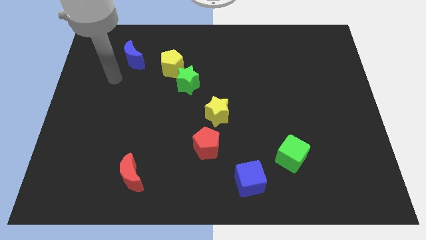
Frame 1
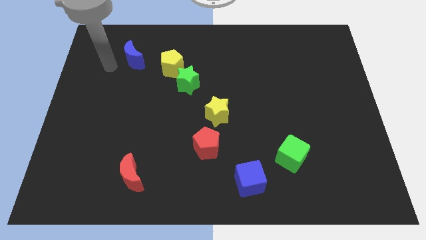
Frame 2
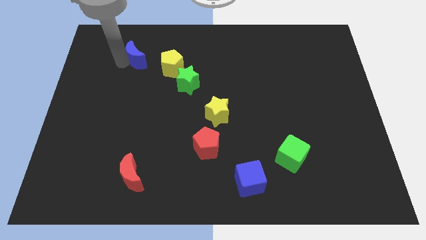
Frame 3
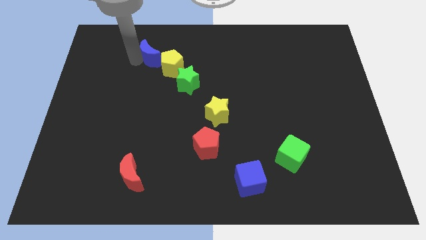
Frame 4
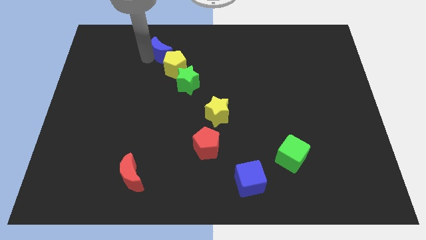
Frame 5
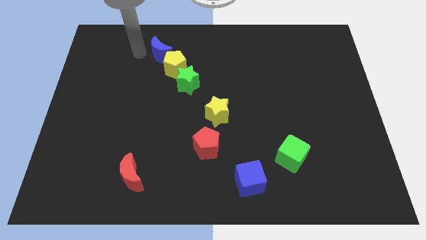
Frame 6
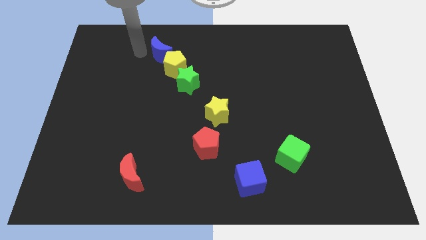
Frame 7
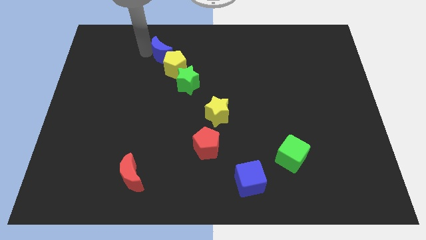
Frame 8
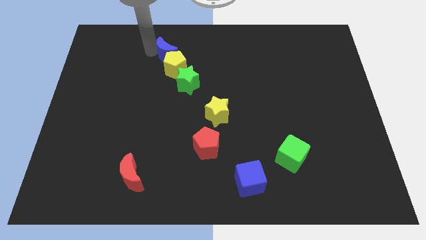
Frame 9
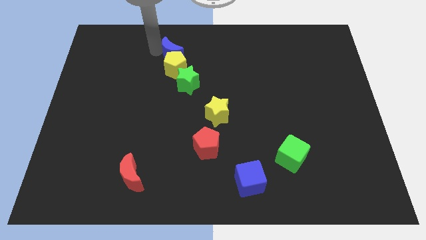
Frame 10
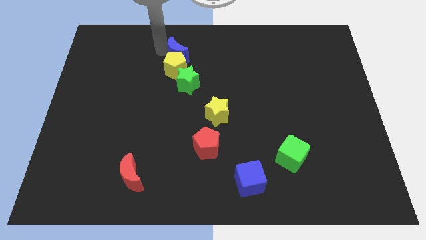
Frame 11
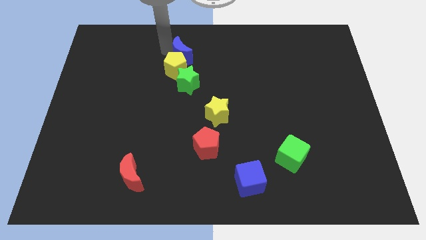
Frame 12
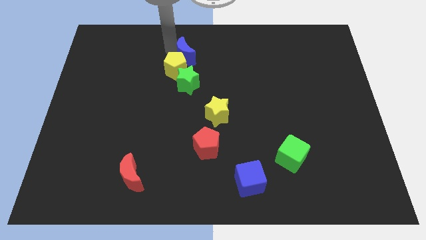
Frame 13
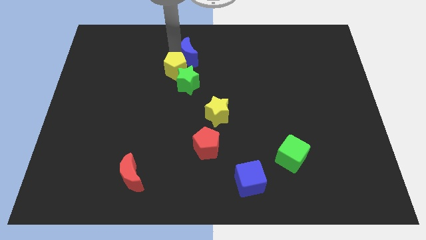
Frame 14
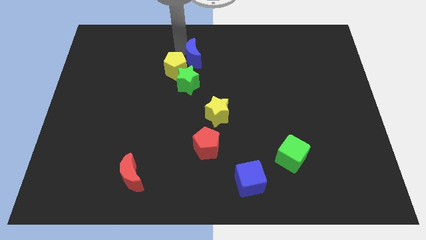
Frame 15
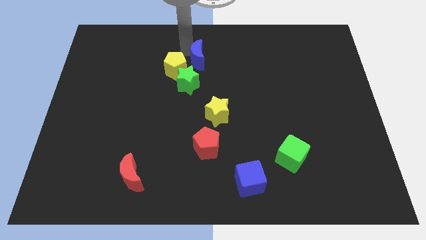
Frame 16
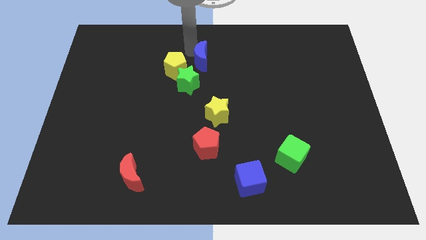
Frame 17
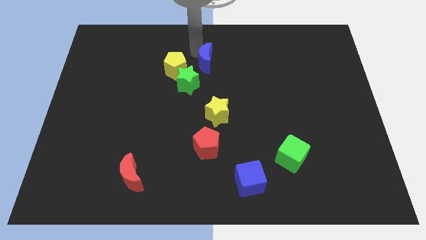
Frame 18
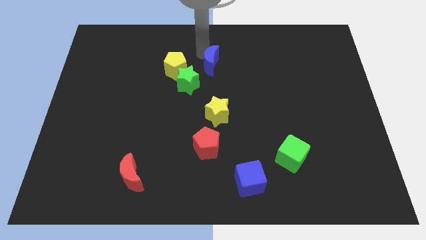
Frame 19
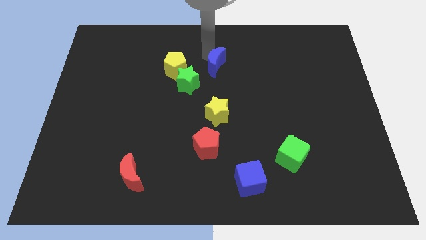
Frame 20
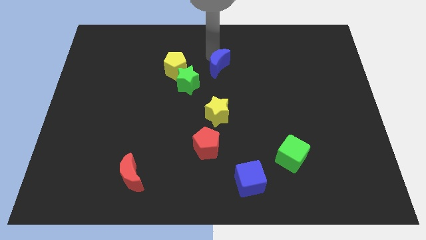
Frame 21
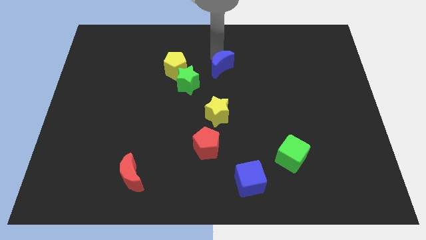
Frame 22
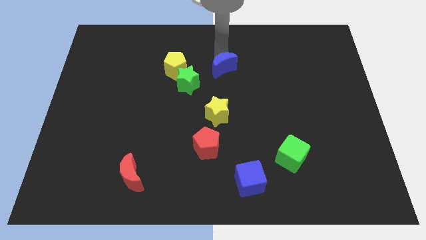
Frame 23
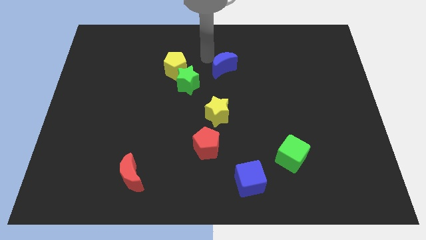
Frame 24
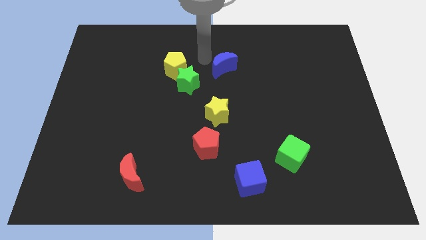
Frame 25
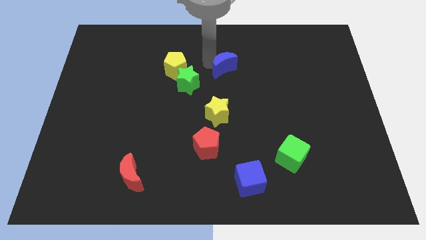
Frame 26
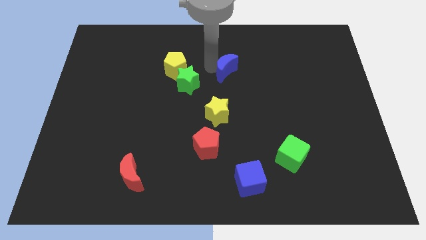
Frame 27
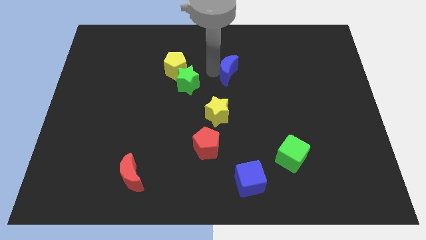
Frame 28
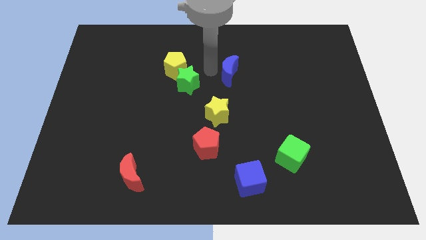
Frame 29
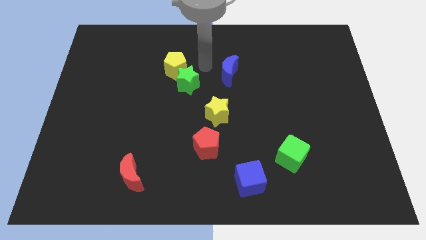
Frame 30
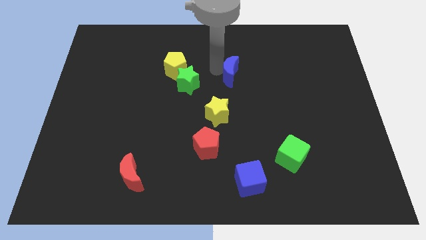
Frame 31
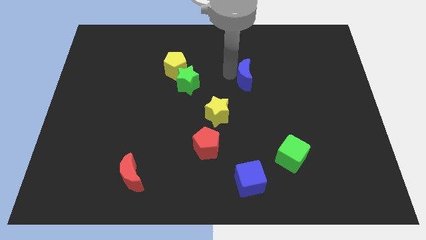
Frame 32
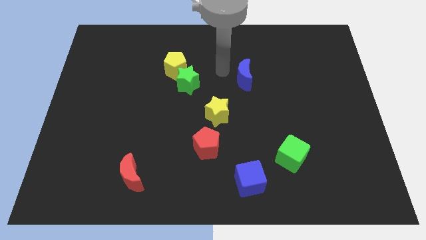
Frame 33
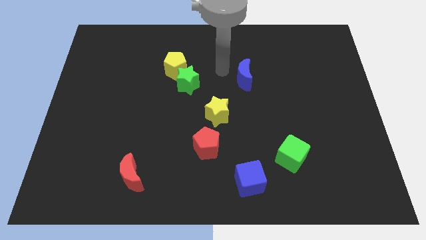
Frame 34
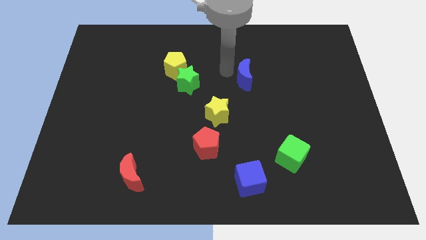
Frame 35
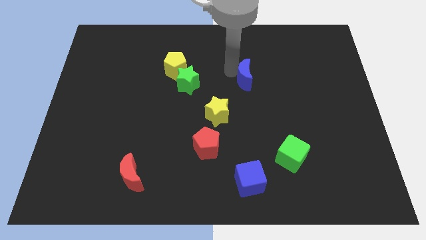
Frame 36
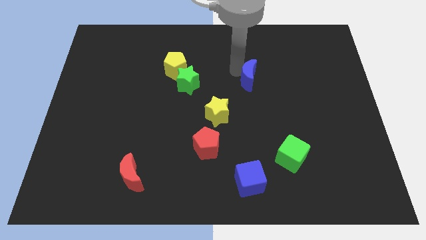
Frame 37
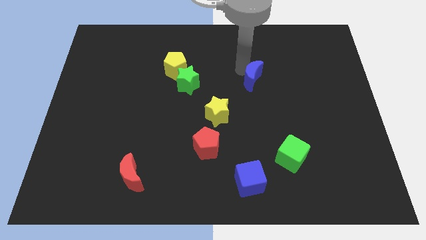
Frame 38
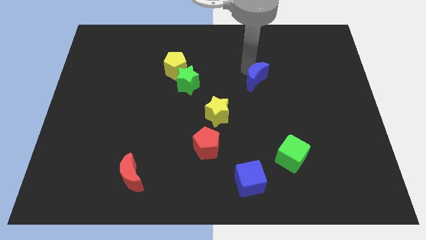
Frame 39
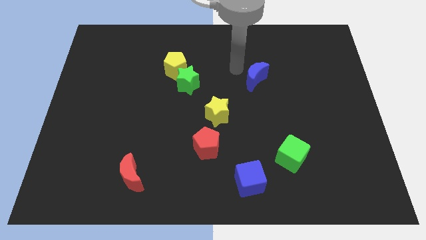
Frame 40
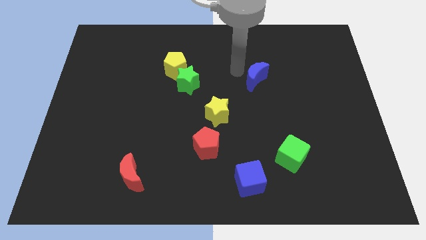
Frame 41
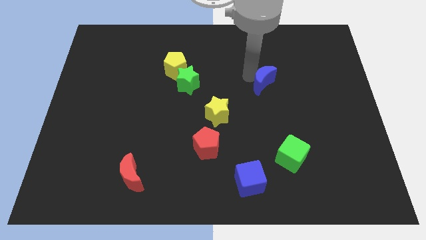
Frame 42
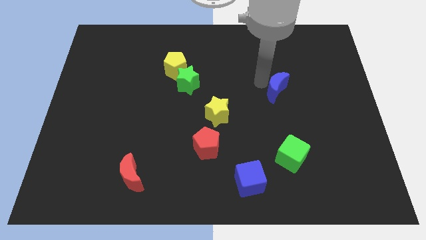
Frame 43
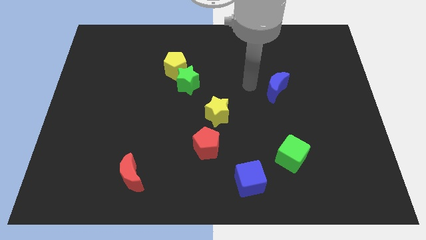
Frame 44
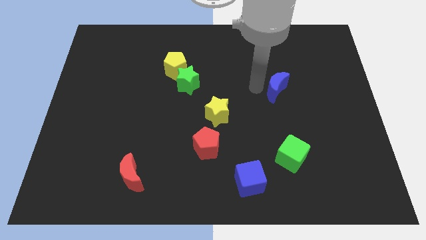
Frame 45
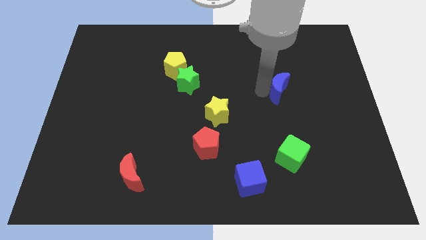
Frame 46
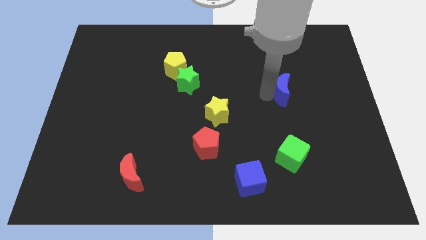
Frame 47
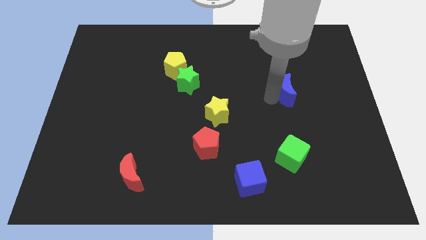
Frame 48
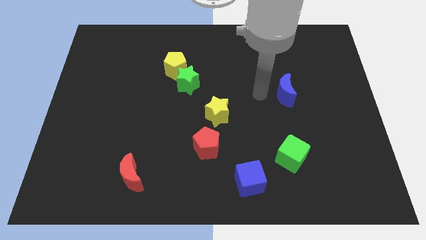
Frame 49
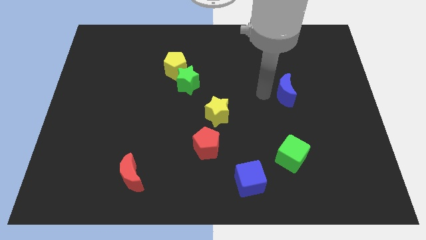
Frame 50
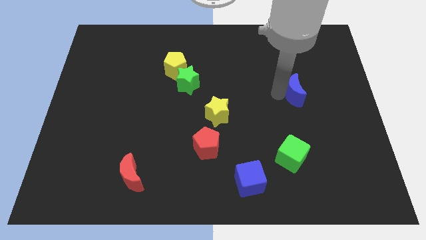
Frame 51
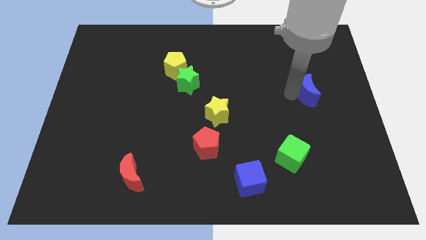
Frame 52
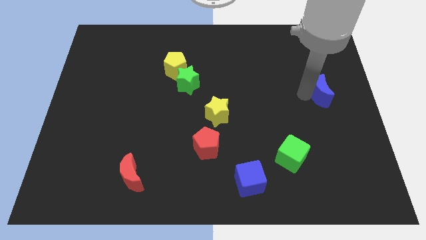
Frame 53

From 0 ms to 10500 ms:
put the blue moon to the right side
